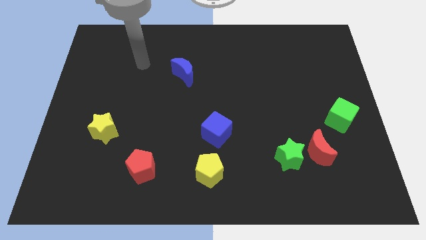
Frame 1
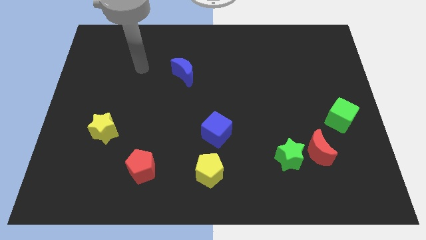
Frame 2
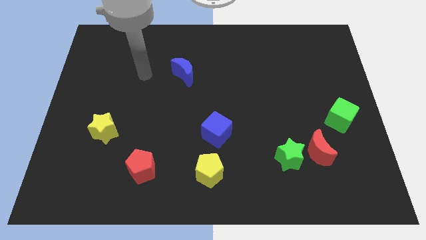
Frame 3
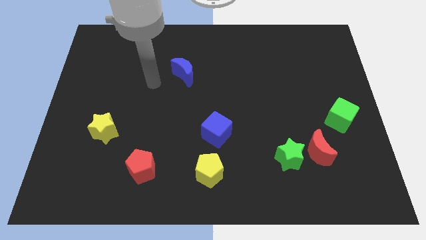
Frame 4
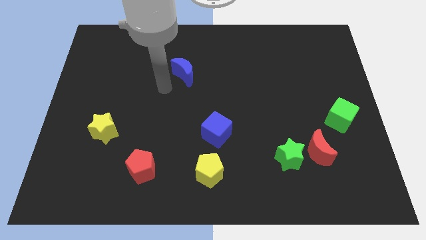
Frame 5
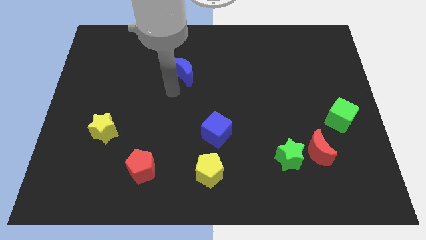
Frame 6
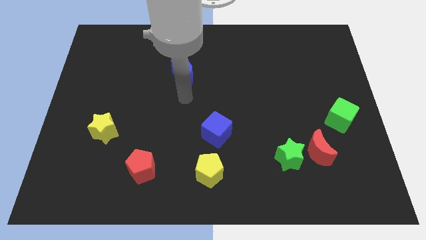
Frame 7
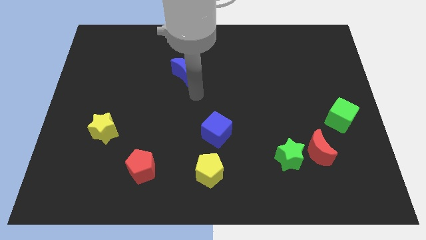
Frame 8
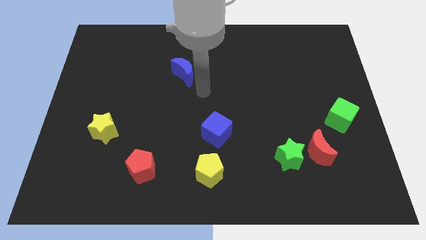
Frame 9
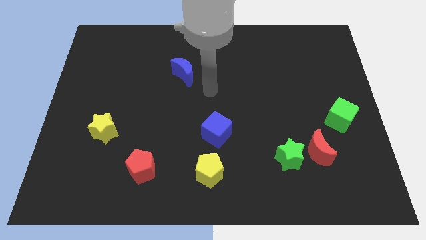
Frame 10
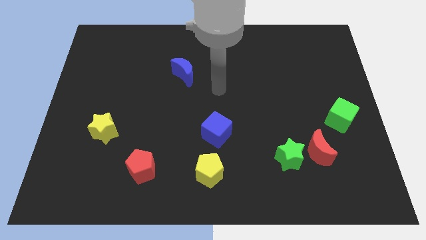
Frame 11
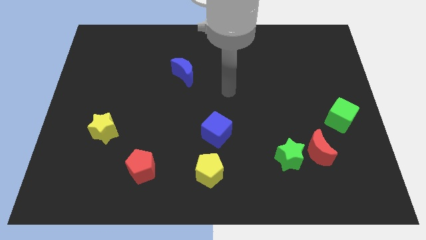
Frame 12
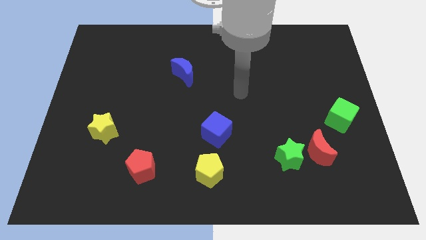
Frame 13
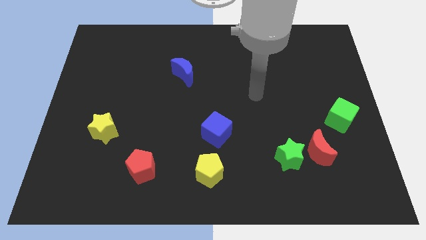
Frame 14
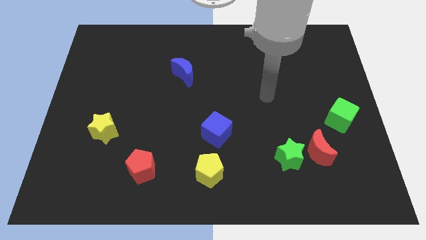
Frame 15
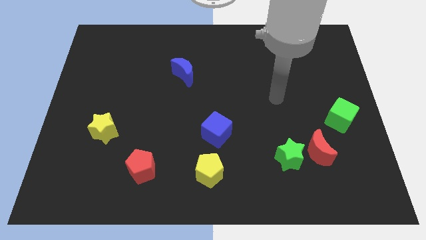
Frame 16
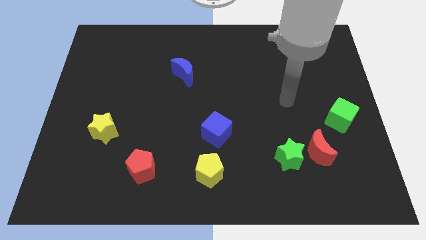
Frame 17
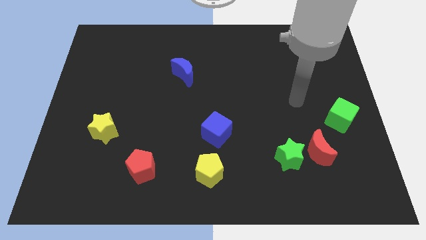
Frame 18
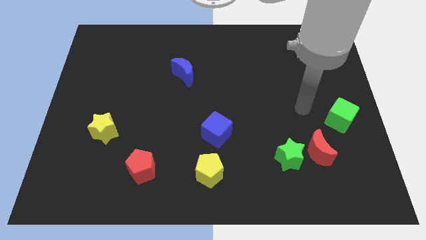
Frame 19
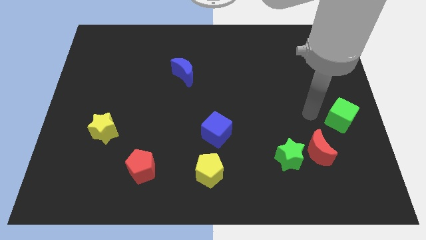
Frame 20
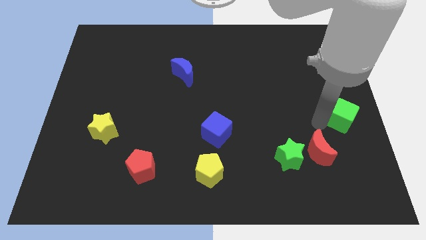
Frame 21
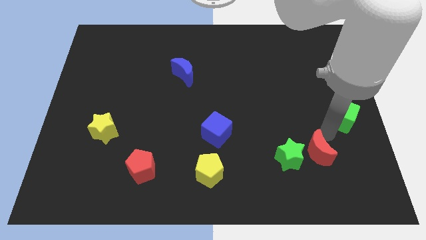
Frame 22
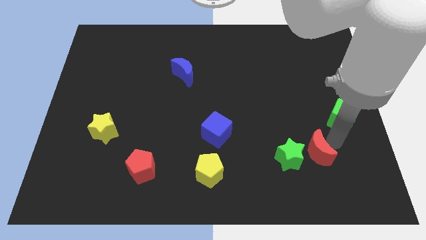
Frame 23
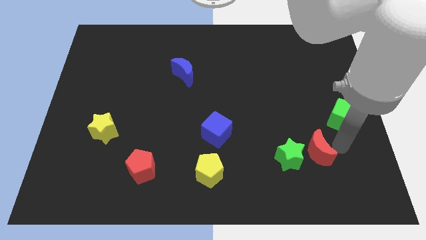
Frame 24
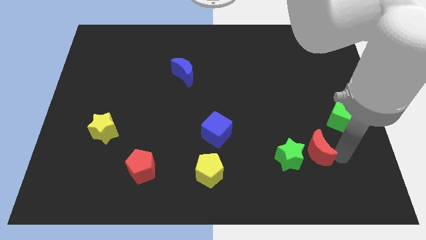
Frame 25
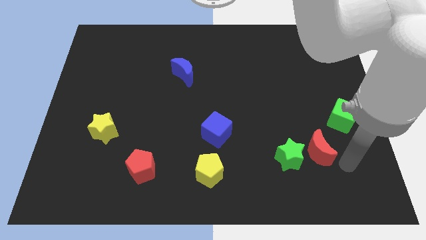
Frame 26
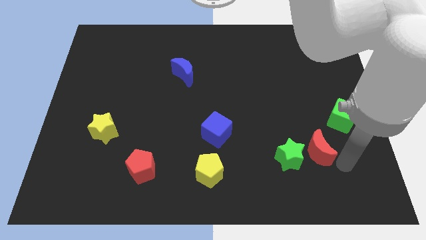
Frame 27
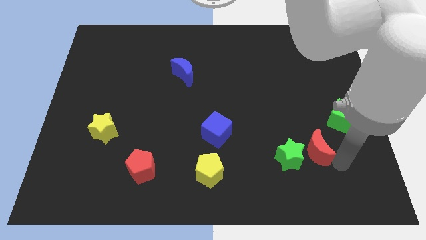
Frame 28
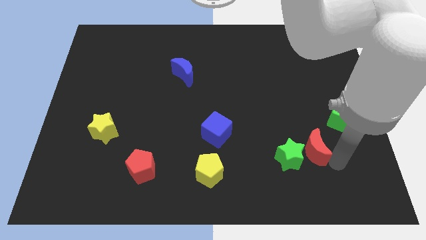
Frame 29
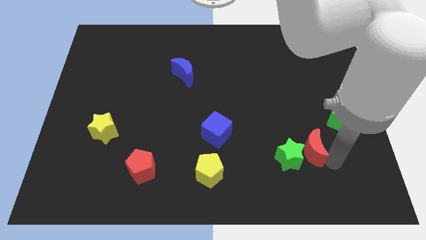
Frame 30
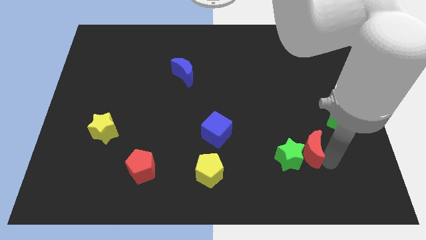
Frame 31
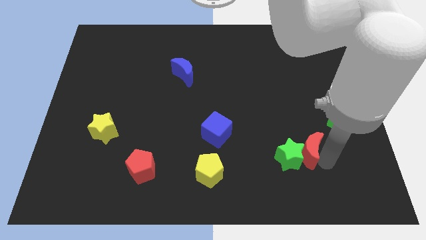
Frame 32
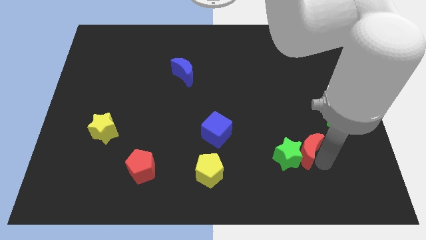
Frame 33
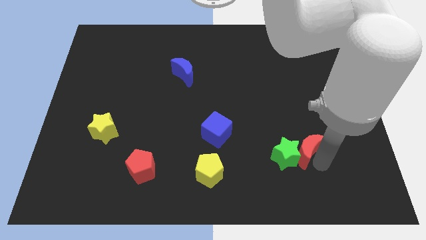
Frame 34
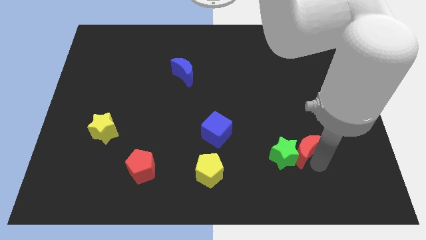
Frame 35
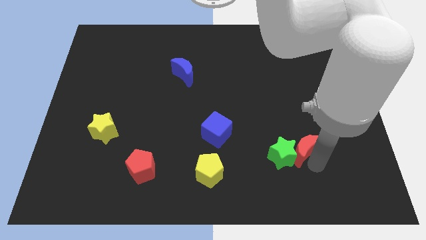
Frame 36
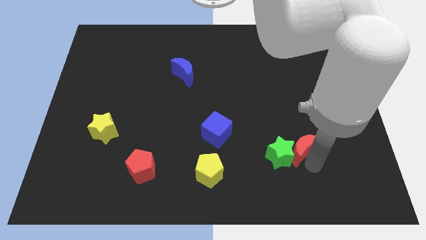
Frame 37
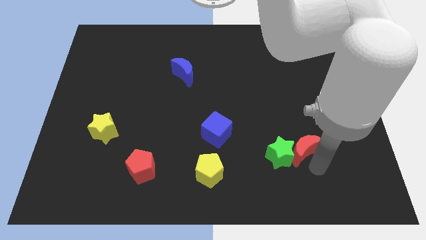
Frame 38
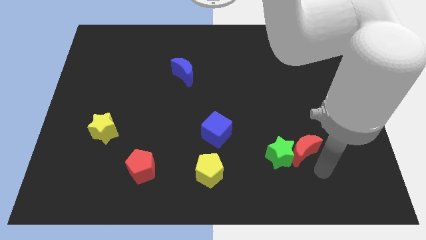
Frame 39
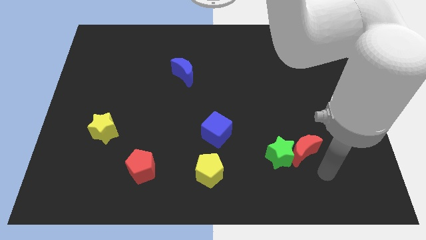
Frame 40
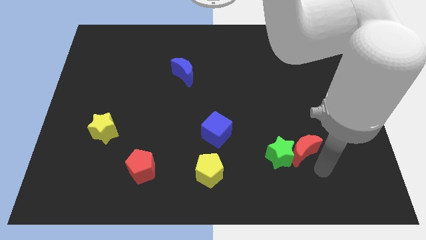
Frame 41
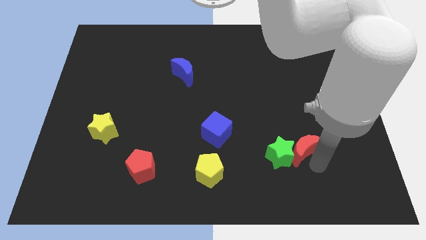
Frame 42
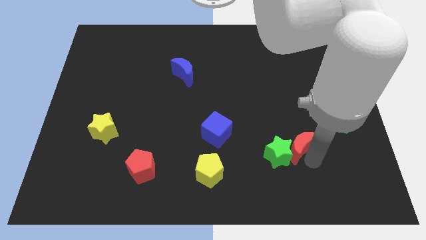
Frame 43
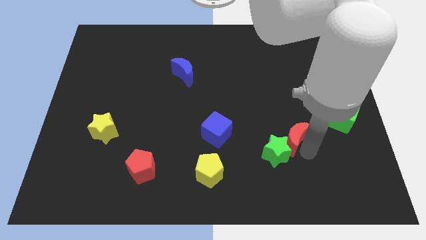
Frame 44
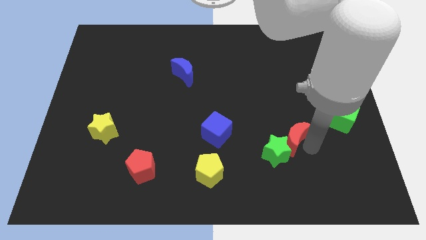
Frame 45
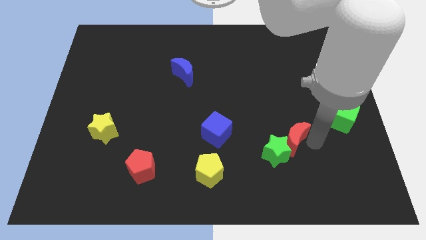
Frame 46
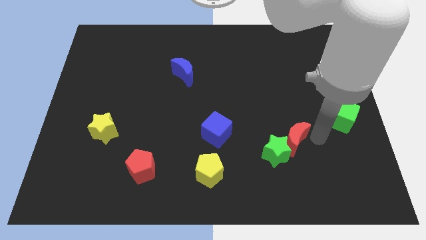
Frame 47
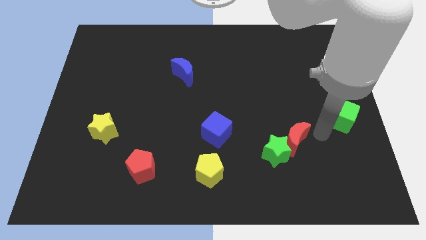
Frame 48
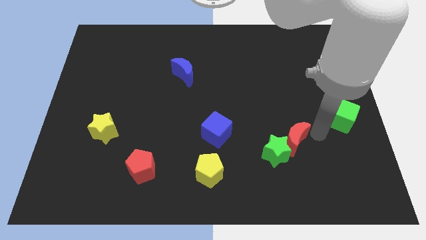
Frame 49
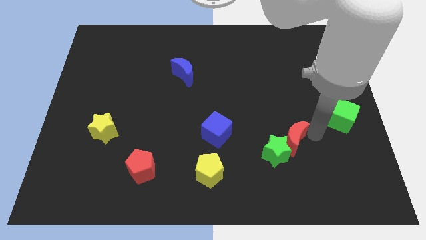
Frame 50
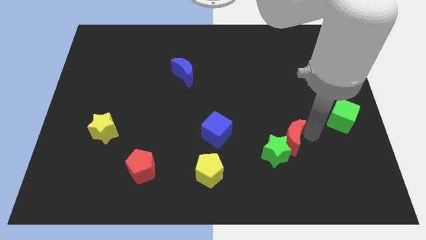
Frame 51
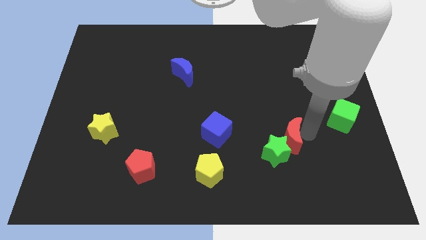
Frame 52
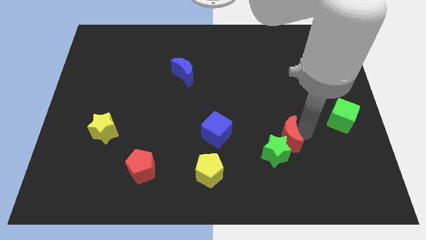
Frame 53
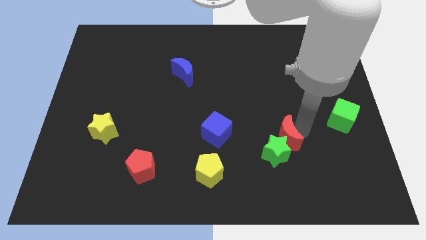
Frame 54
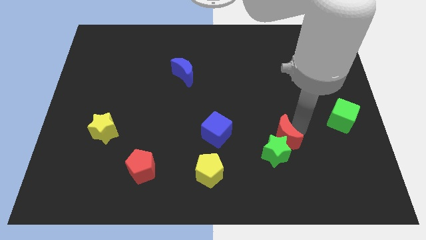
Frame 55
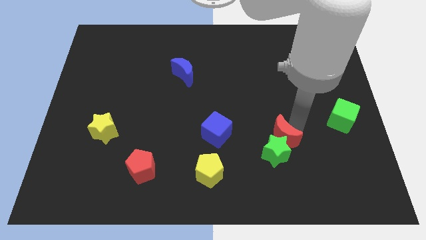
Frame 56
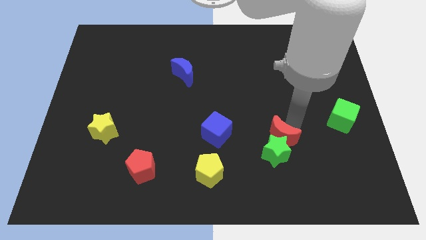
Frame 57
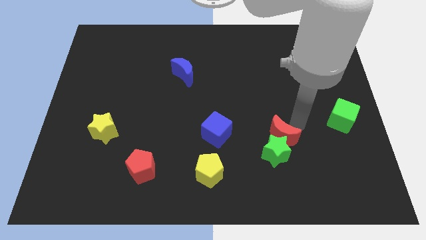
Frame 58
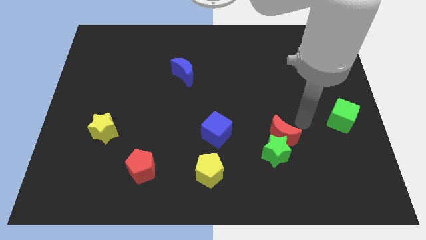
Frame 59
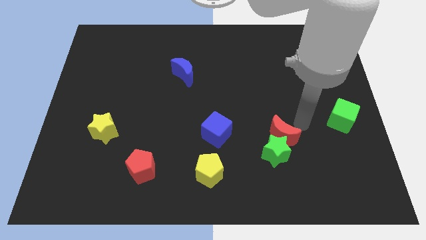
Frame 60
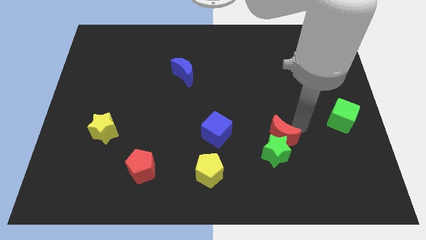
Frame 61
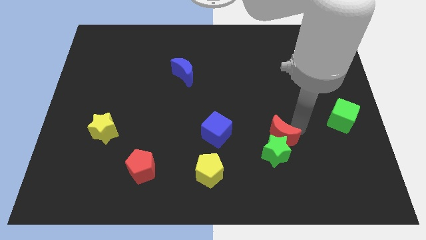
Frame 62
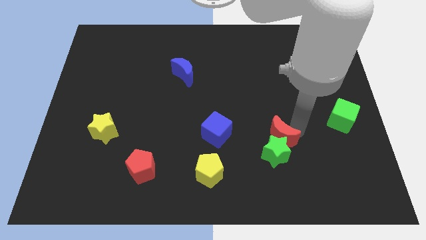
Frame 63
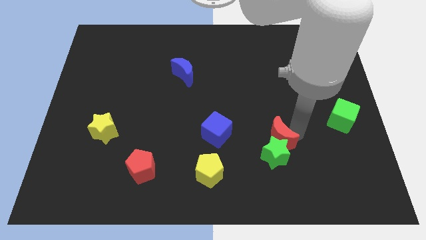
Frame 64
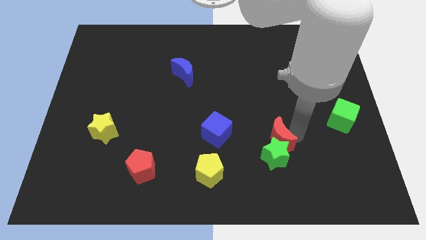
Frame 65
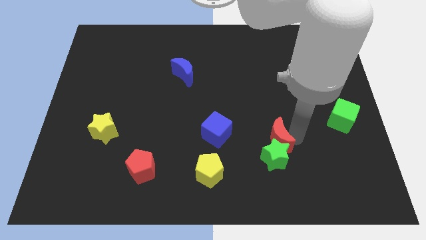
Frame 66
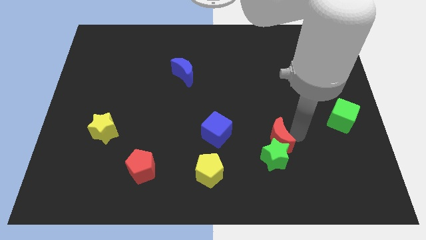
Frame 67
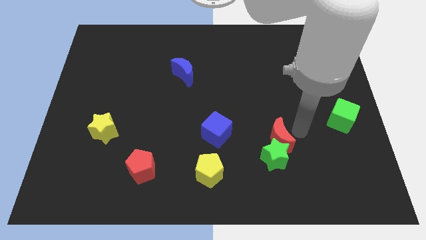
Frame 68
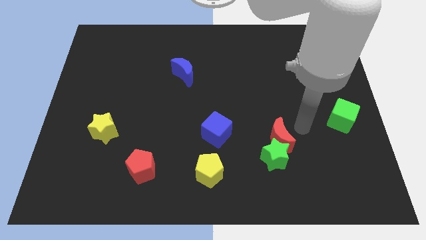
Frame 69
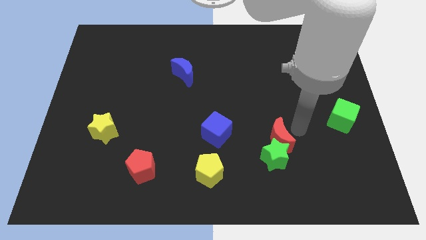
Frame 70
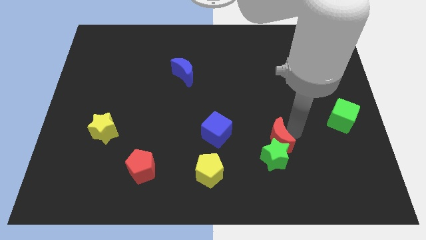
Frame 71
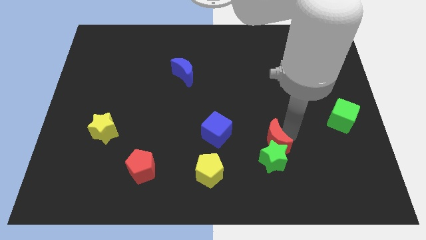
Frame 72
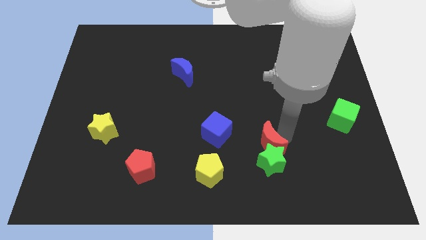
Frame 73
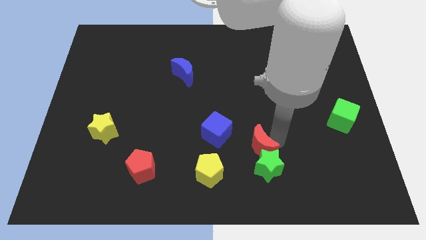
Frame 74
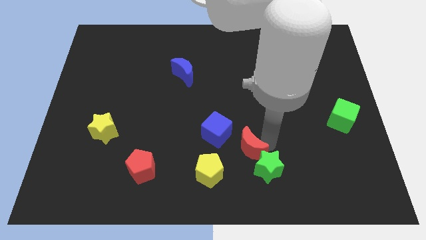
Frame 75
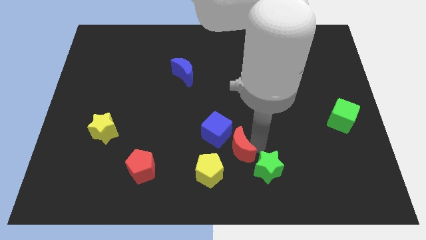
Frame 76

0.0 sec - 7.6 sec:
move the red moon to the left of the green star
